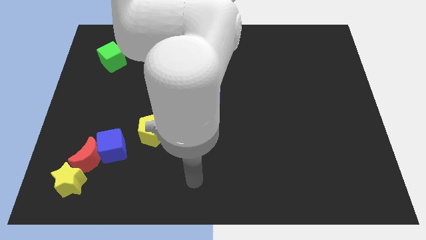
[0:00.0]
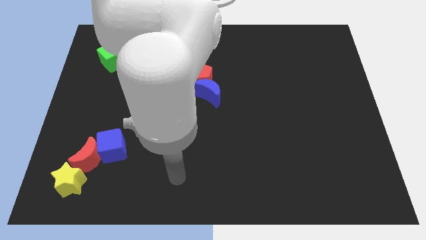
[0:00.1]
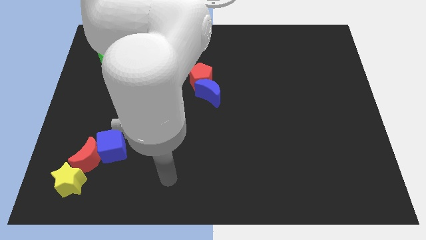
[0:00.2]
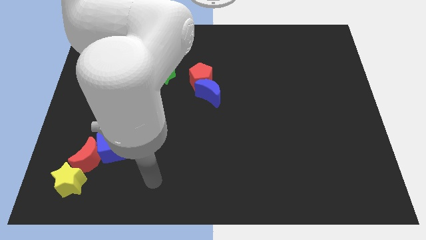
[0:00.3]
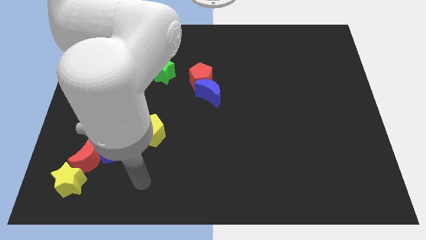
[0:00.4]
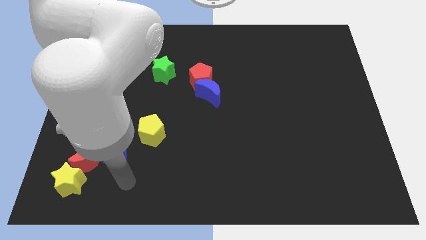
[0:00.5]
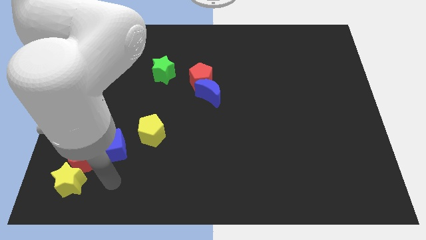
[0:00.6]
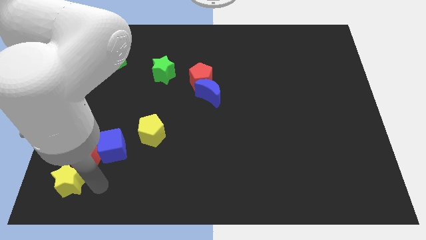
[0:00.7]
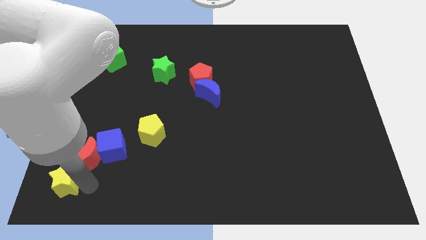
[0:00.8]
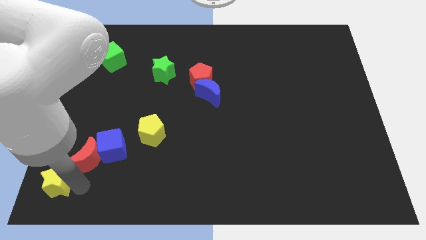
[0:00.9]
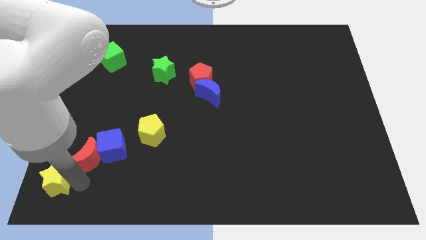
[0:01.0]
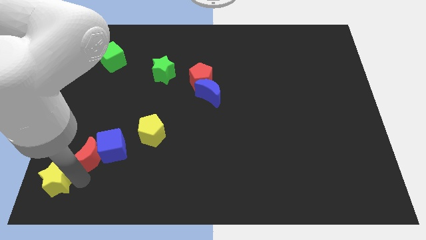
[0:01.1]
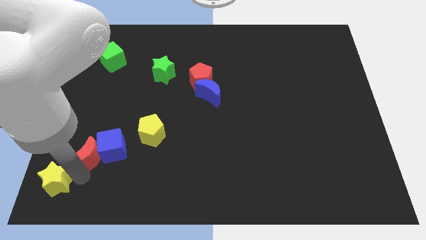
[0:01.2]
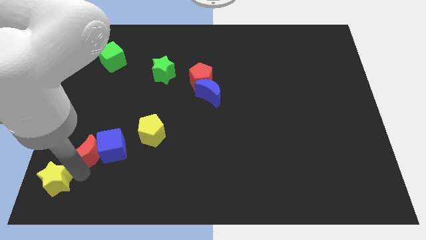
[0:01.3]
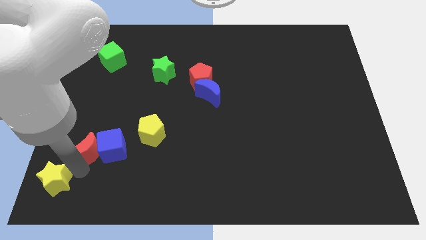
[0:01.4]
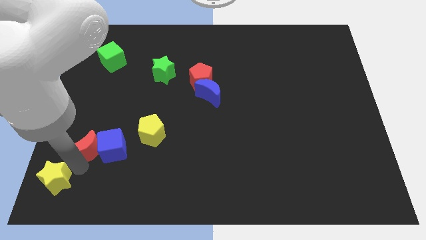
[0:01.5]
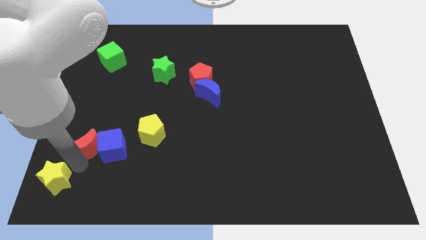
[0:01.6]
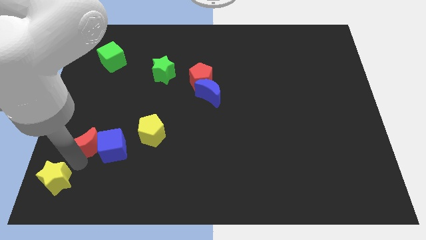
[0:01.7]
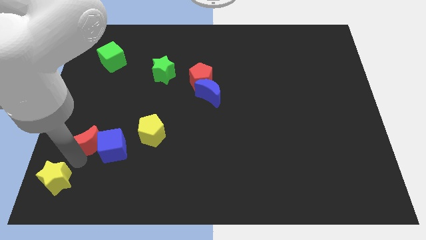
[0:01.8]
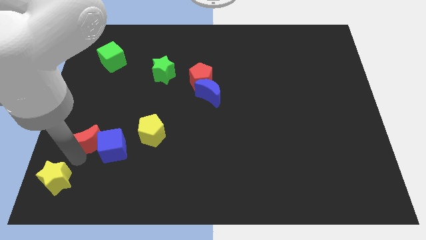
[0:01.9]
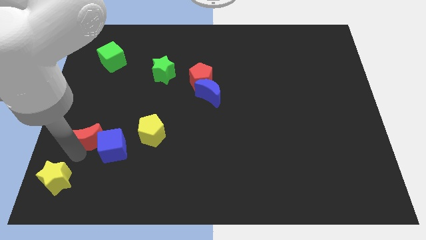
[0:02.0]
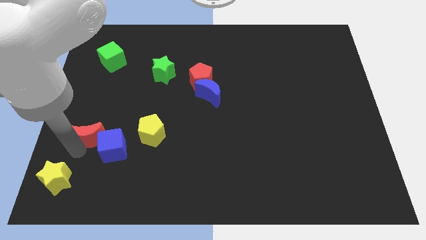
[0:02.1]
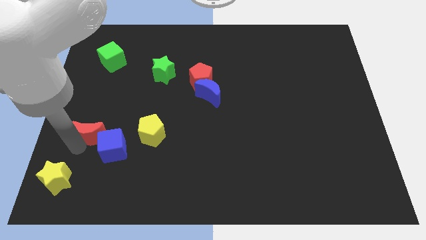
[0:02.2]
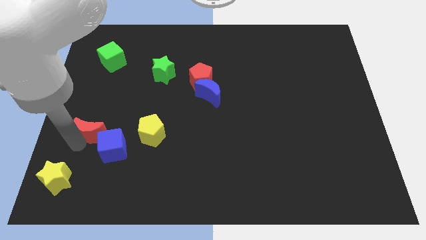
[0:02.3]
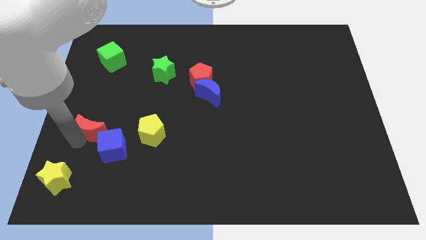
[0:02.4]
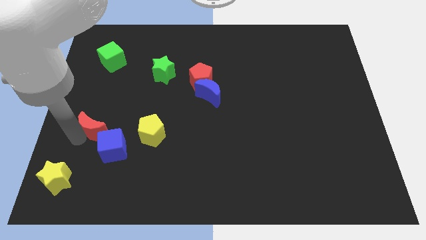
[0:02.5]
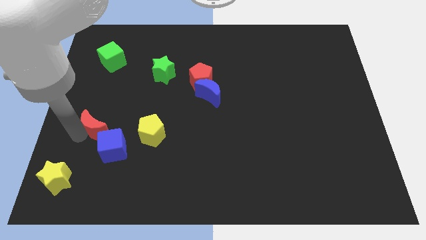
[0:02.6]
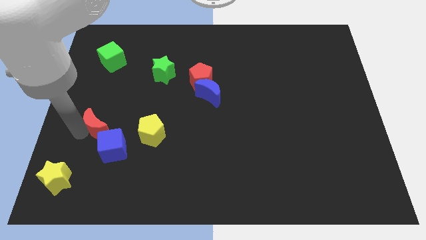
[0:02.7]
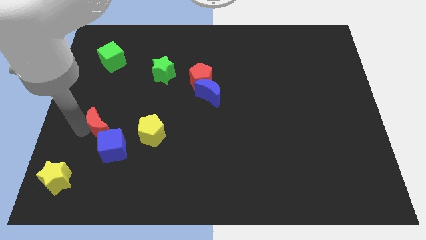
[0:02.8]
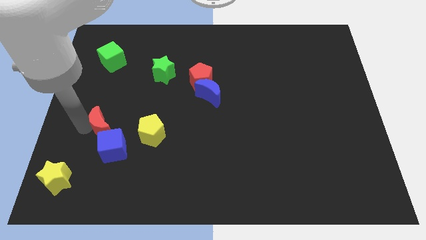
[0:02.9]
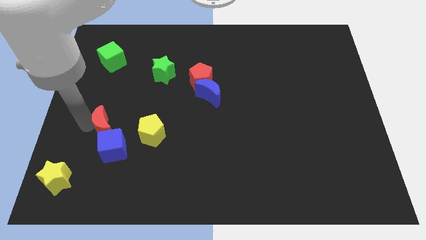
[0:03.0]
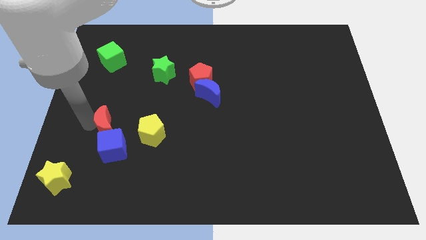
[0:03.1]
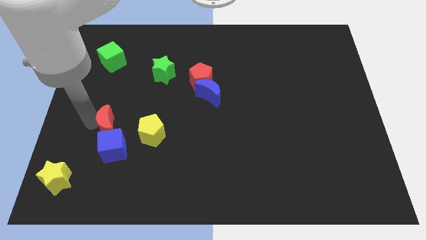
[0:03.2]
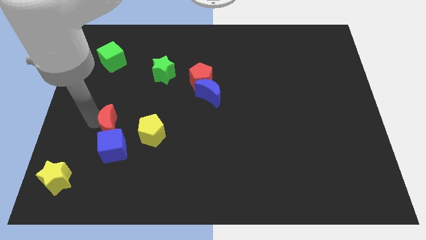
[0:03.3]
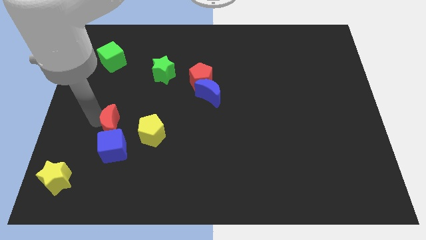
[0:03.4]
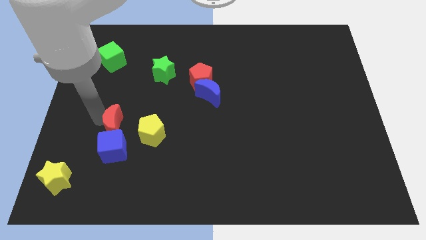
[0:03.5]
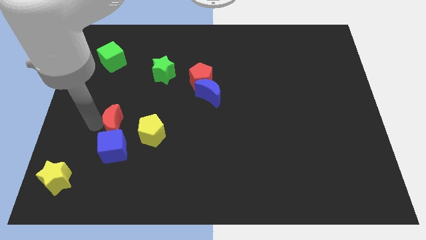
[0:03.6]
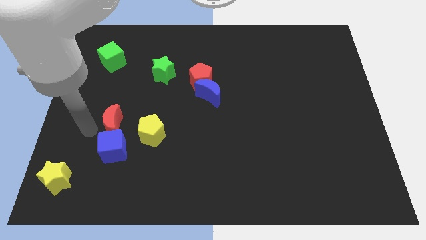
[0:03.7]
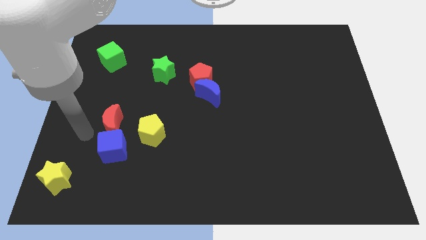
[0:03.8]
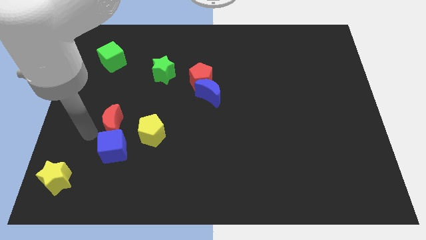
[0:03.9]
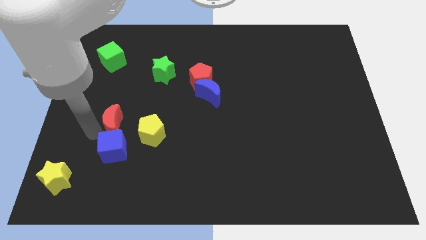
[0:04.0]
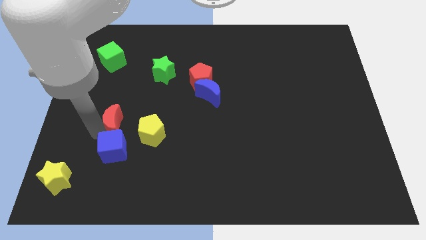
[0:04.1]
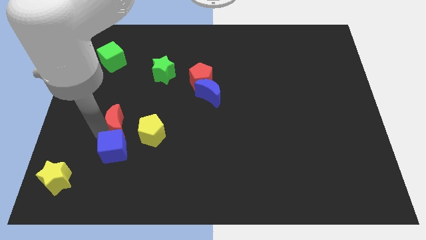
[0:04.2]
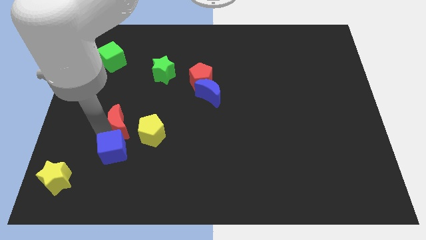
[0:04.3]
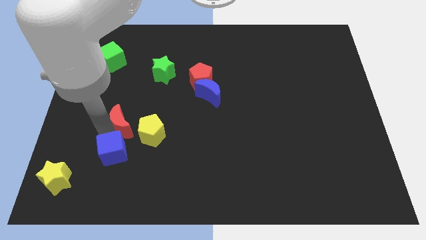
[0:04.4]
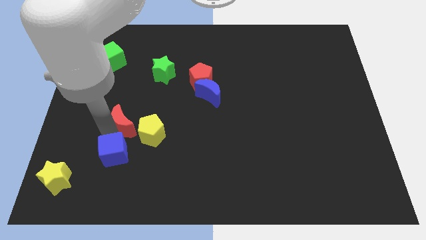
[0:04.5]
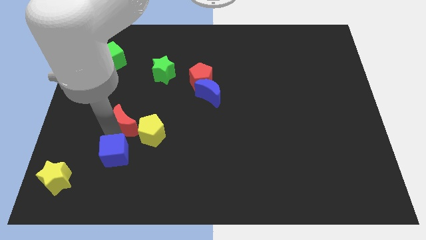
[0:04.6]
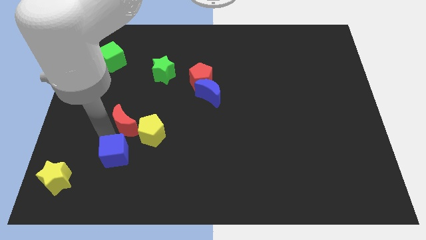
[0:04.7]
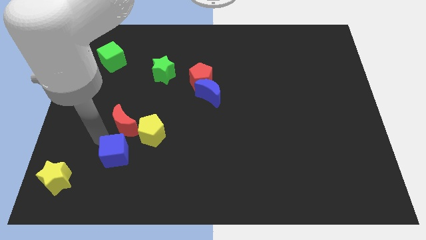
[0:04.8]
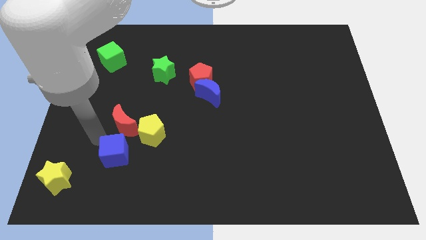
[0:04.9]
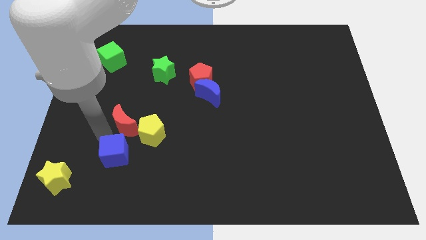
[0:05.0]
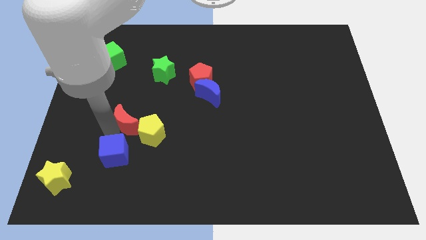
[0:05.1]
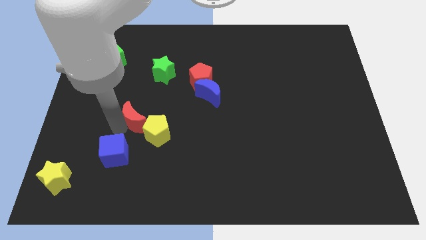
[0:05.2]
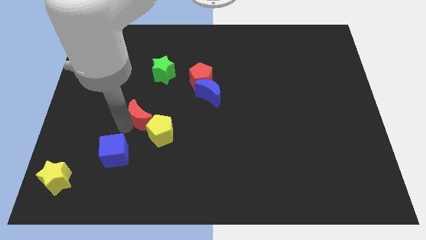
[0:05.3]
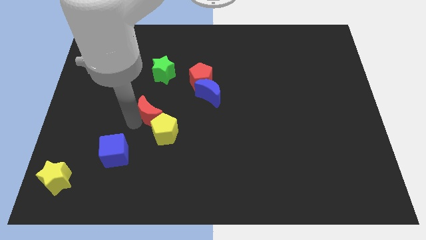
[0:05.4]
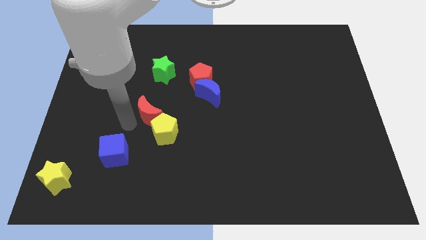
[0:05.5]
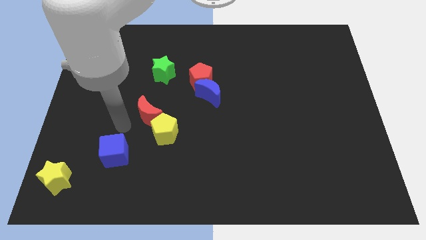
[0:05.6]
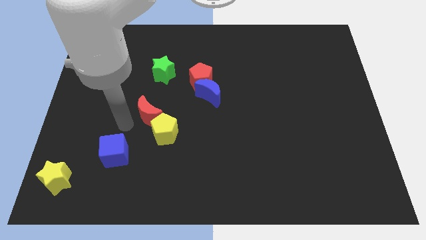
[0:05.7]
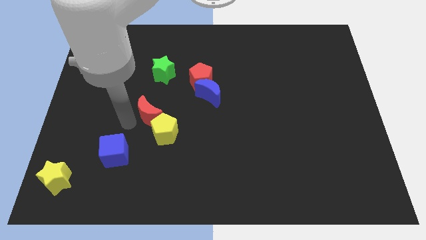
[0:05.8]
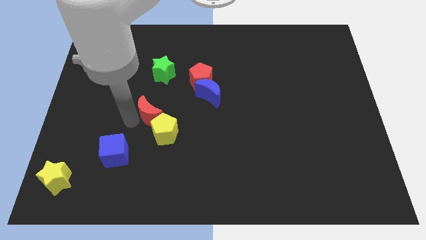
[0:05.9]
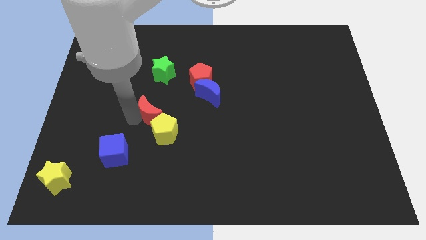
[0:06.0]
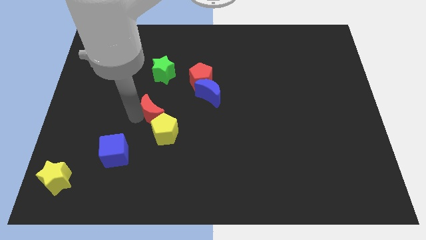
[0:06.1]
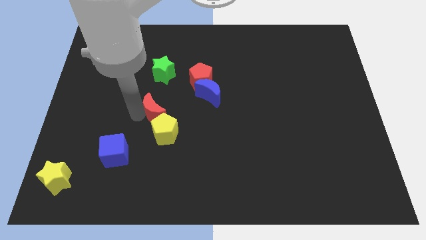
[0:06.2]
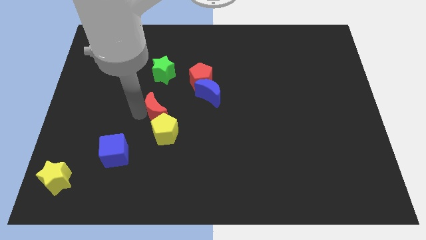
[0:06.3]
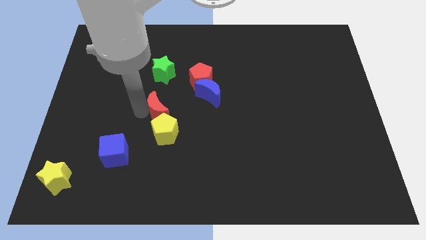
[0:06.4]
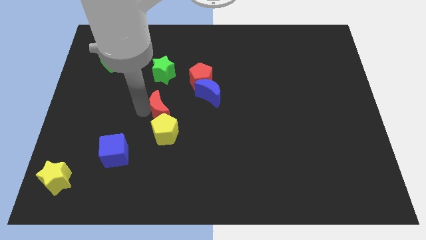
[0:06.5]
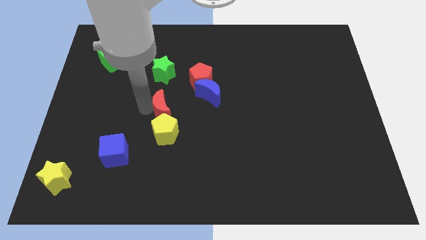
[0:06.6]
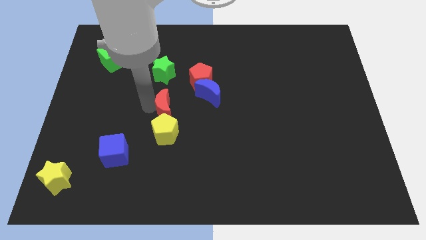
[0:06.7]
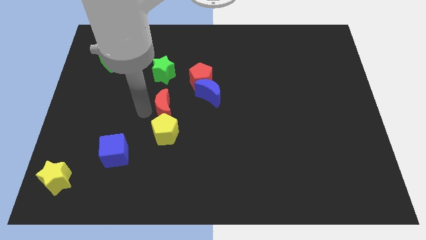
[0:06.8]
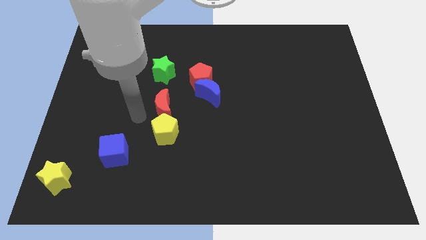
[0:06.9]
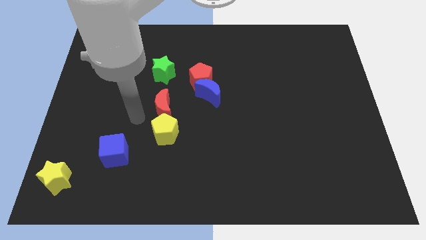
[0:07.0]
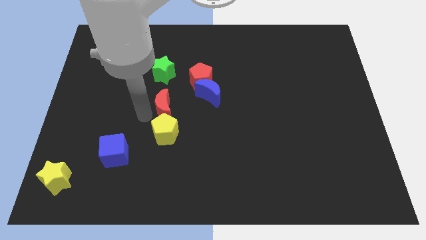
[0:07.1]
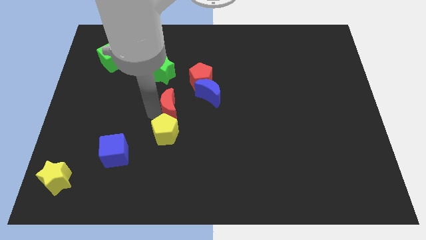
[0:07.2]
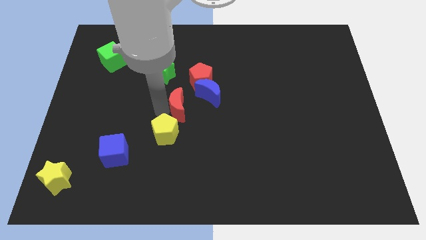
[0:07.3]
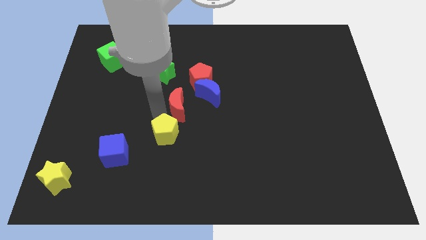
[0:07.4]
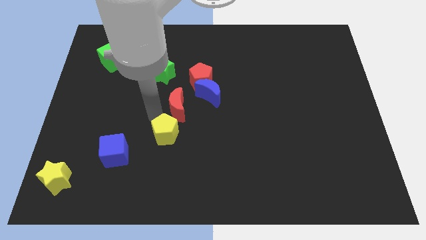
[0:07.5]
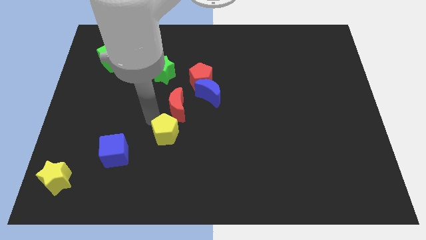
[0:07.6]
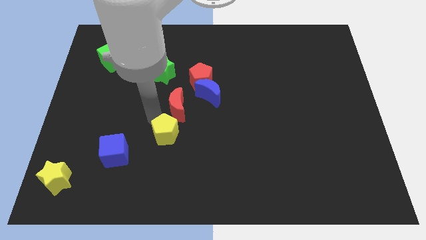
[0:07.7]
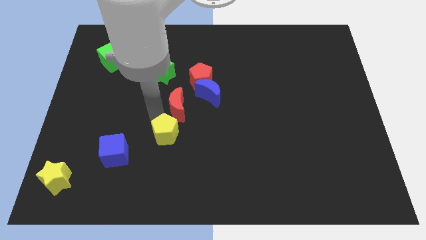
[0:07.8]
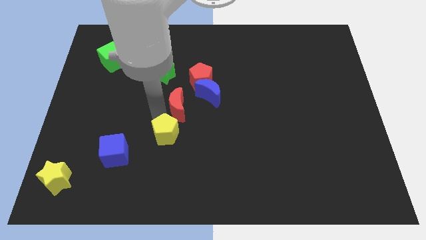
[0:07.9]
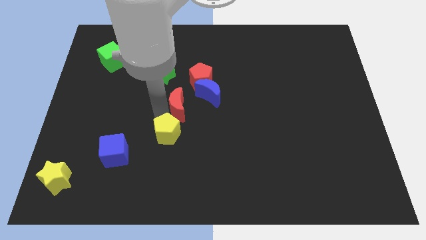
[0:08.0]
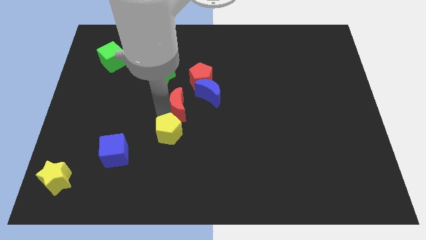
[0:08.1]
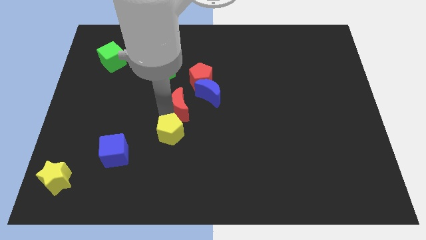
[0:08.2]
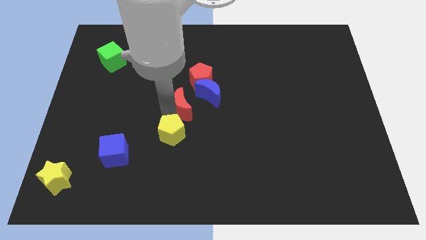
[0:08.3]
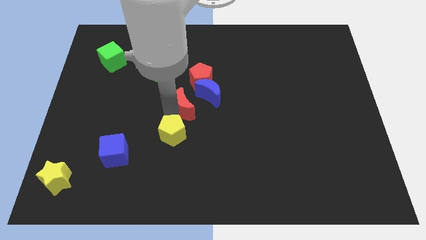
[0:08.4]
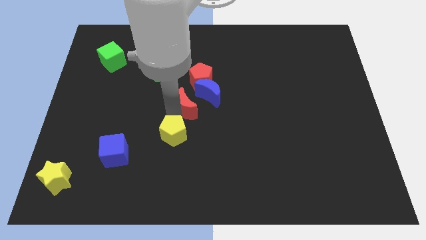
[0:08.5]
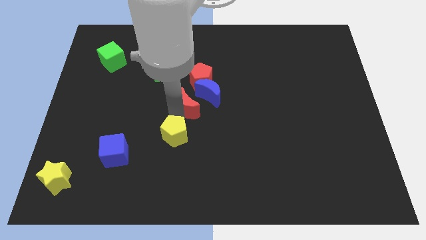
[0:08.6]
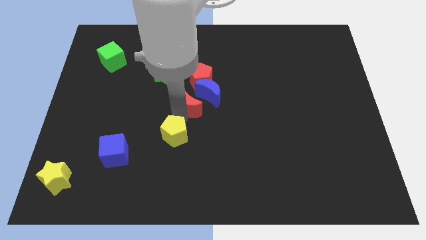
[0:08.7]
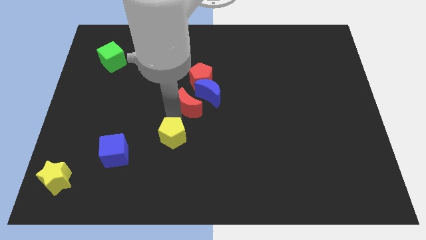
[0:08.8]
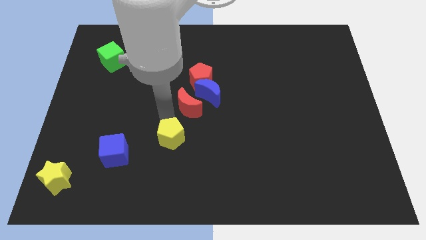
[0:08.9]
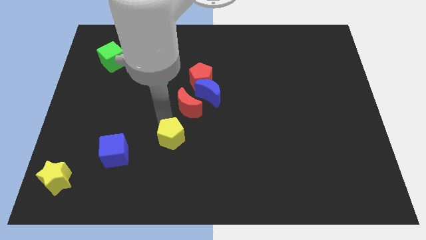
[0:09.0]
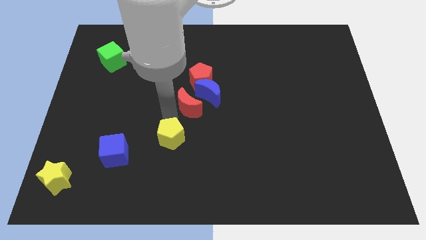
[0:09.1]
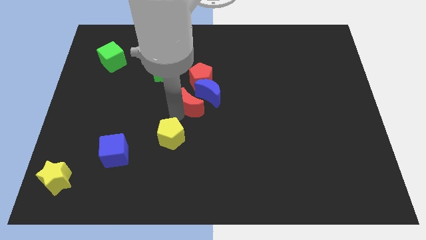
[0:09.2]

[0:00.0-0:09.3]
slide the red moon close to the blue moon
